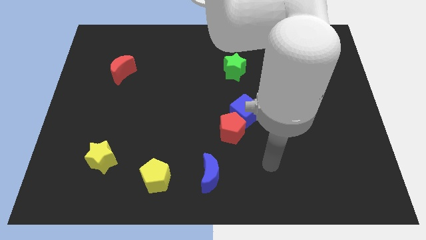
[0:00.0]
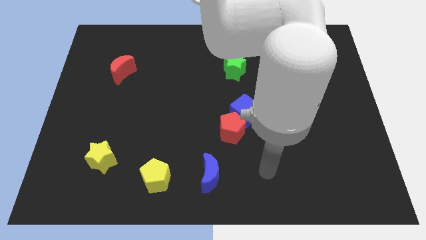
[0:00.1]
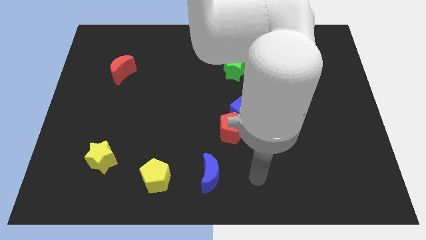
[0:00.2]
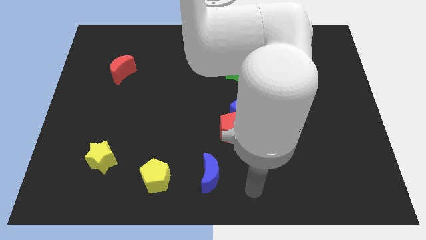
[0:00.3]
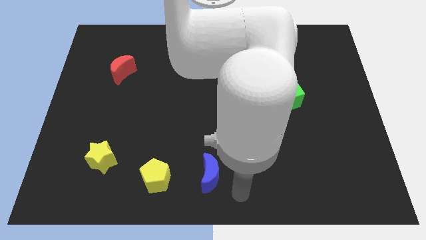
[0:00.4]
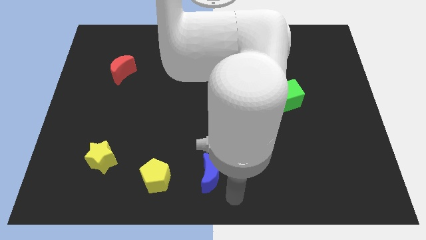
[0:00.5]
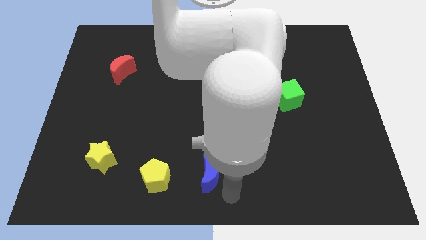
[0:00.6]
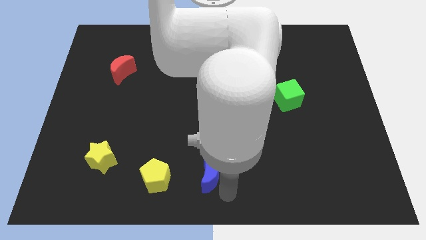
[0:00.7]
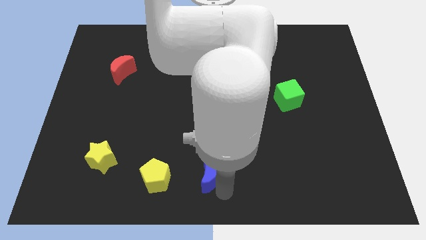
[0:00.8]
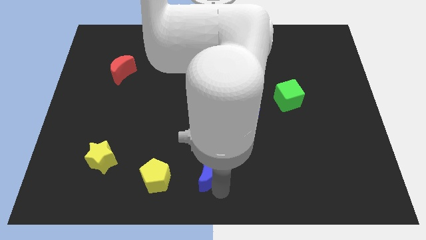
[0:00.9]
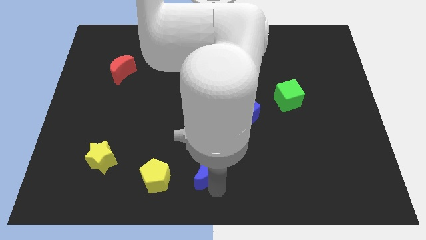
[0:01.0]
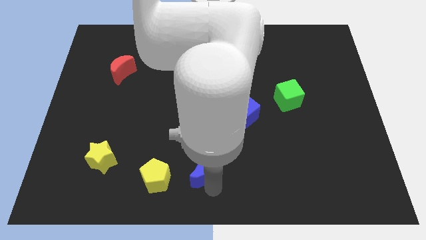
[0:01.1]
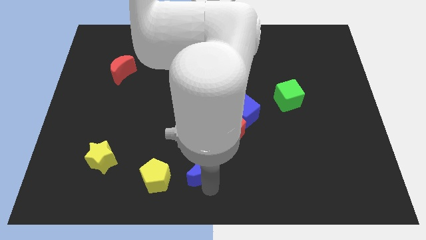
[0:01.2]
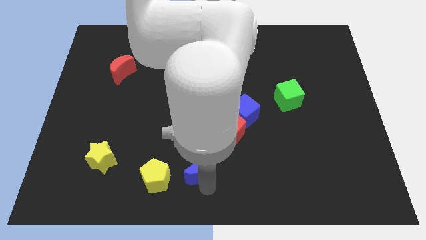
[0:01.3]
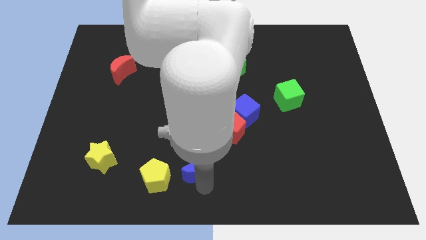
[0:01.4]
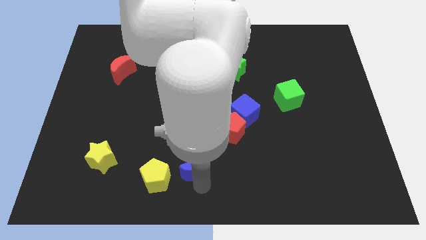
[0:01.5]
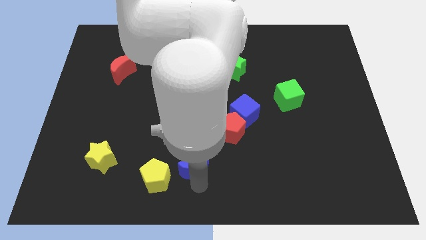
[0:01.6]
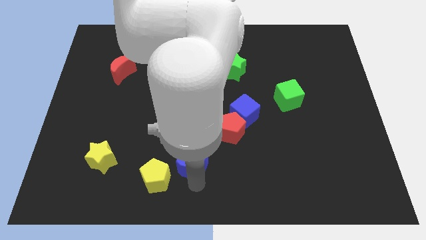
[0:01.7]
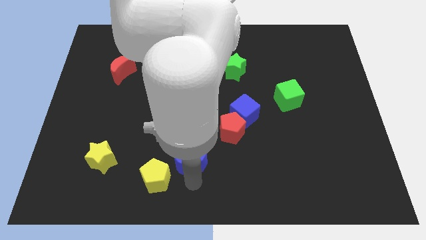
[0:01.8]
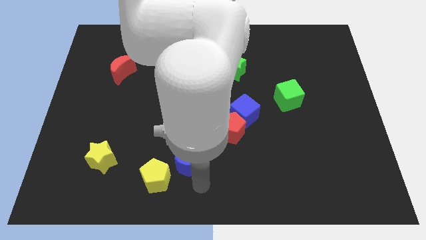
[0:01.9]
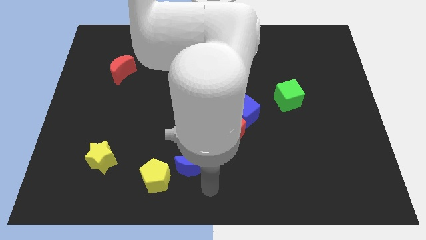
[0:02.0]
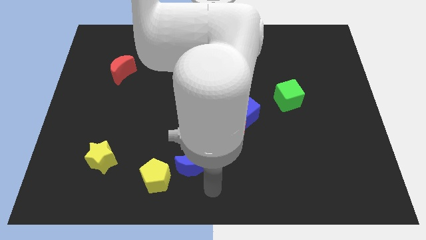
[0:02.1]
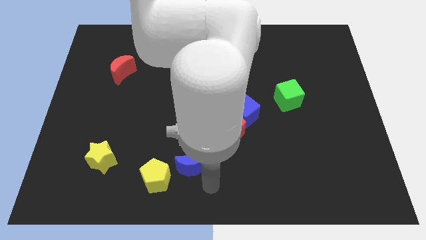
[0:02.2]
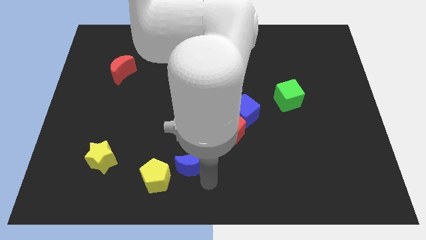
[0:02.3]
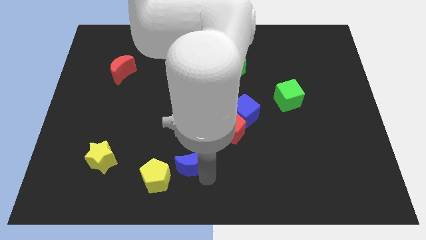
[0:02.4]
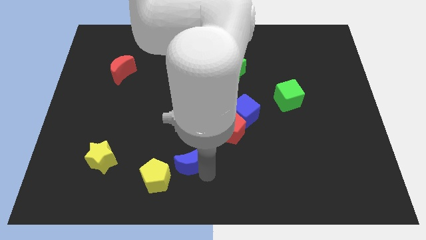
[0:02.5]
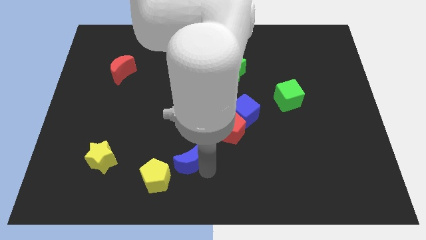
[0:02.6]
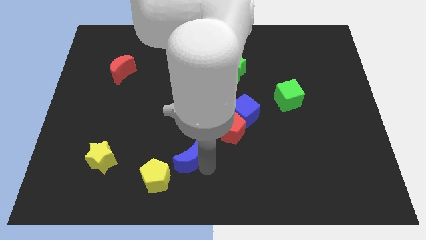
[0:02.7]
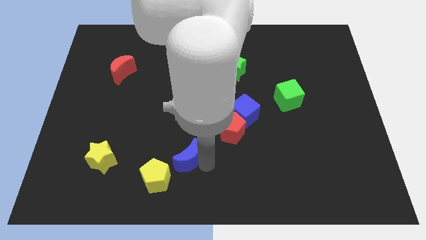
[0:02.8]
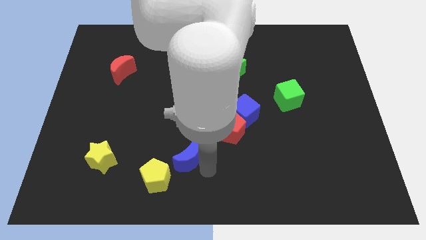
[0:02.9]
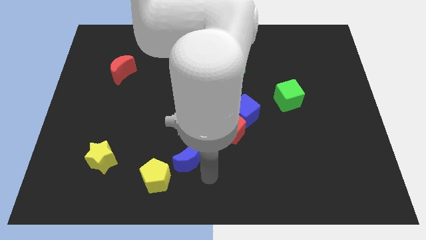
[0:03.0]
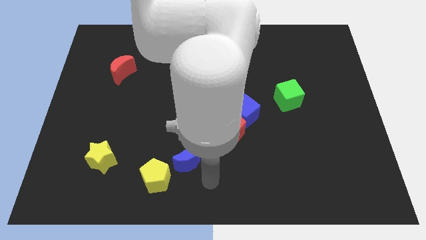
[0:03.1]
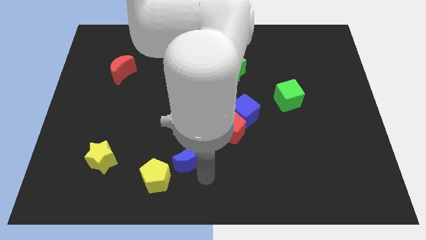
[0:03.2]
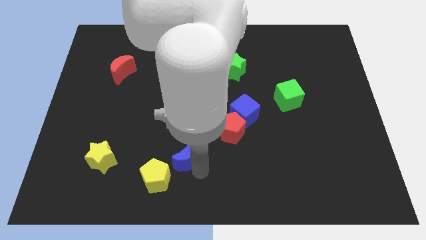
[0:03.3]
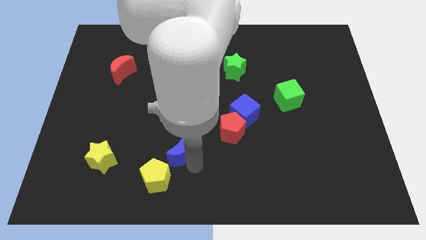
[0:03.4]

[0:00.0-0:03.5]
slide the blue moon a little up and then left

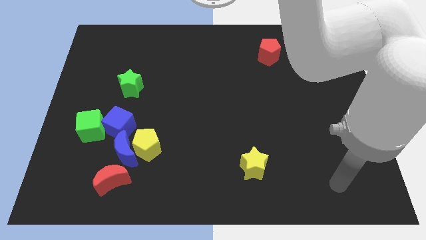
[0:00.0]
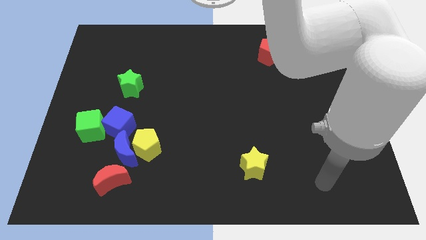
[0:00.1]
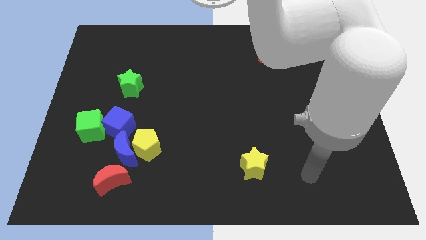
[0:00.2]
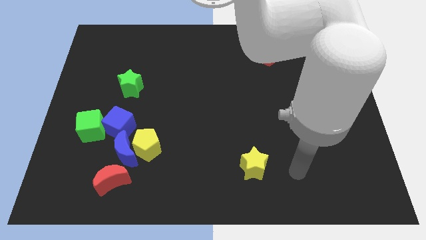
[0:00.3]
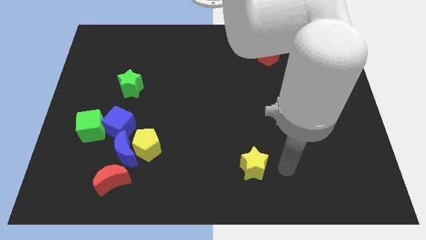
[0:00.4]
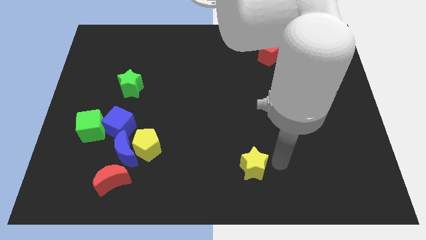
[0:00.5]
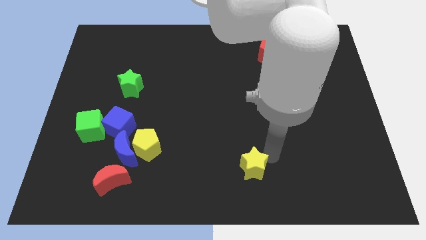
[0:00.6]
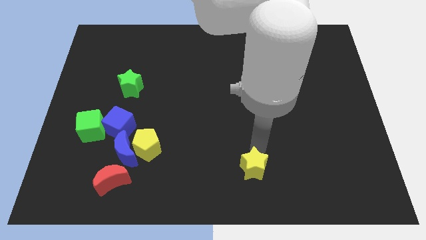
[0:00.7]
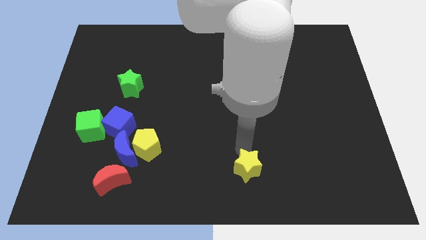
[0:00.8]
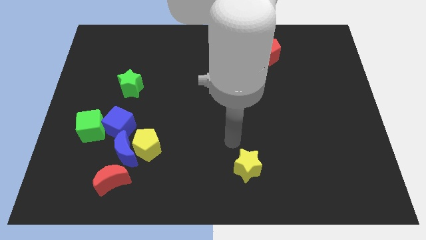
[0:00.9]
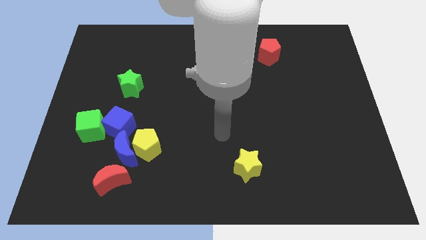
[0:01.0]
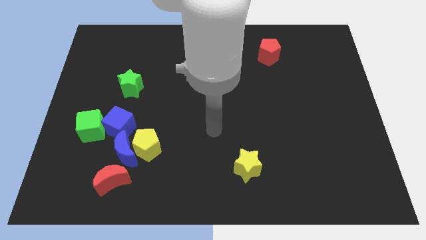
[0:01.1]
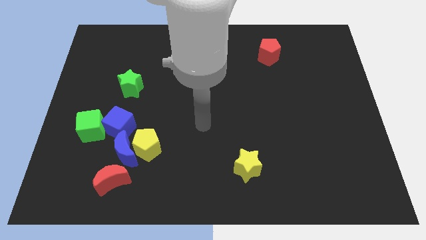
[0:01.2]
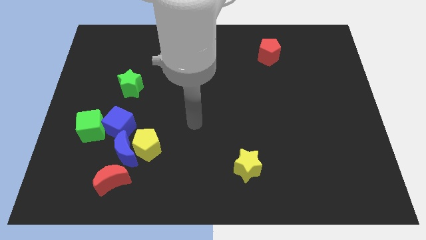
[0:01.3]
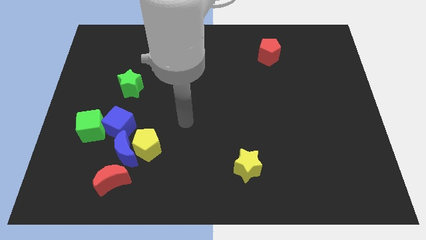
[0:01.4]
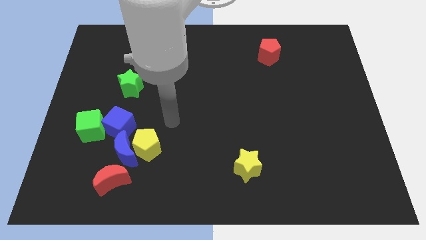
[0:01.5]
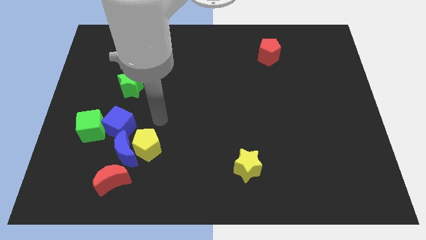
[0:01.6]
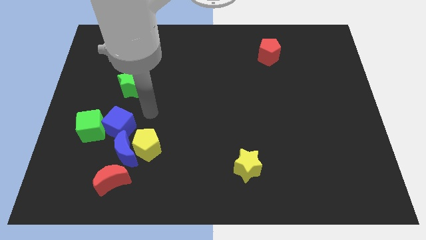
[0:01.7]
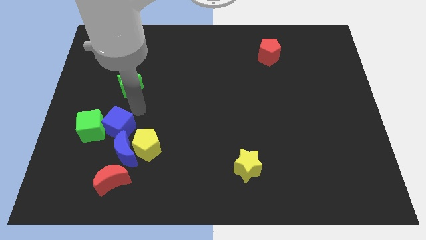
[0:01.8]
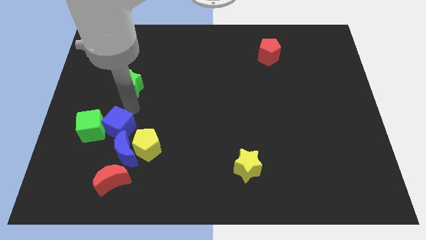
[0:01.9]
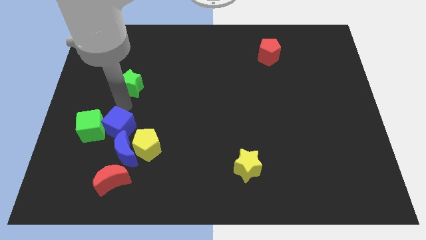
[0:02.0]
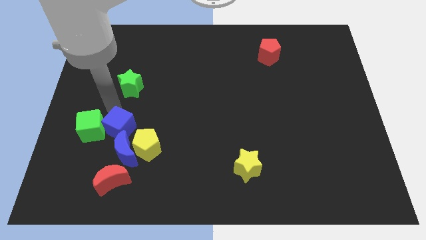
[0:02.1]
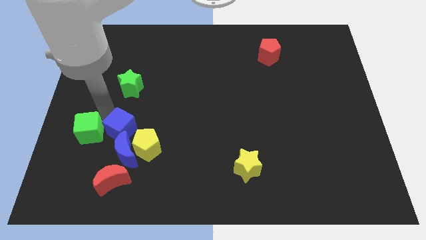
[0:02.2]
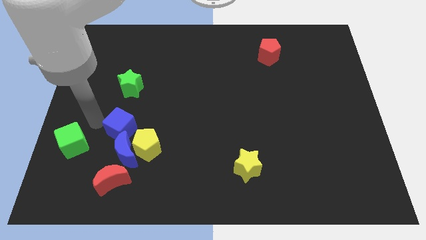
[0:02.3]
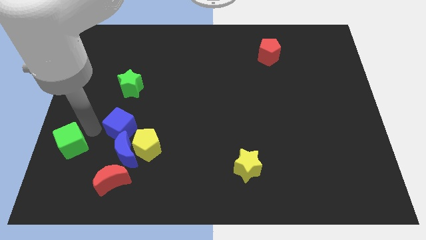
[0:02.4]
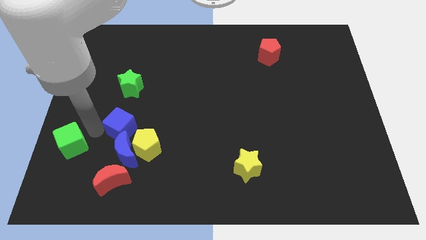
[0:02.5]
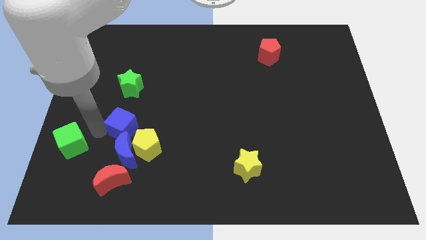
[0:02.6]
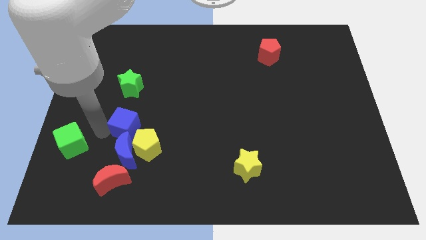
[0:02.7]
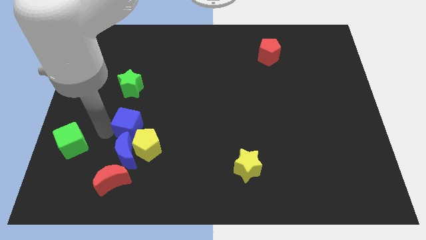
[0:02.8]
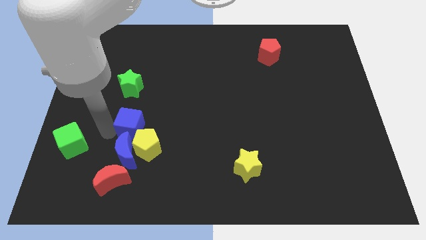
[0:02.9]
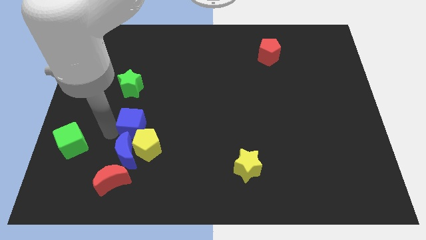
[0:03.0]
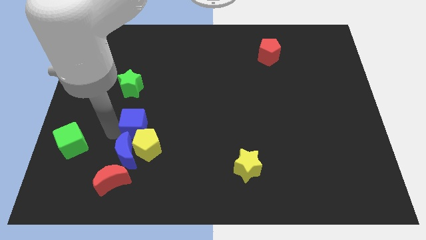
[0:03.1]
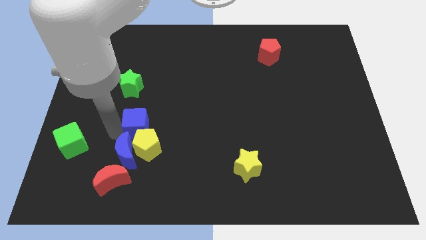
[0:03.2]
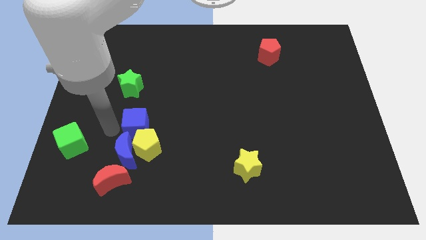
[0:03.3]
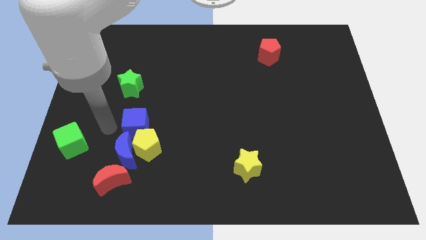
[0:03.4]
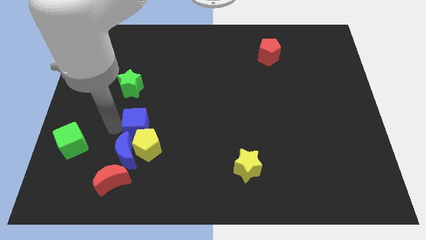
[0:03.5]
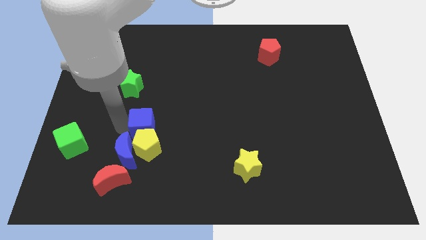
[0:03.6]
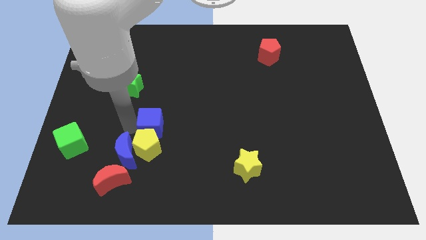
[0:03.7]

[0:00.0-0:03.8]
slightly move the blue cube to the right
